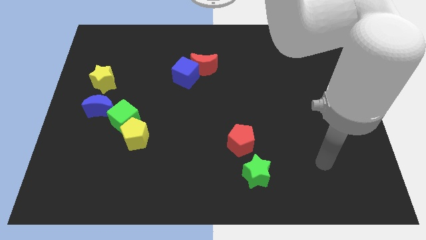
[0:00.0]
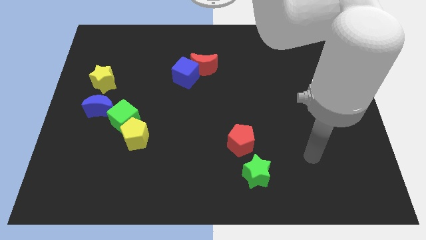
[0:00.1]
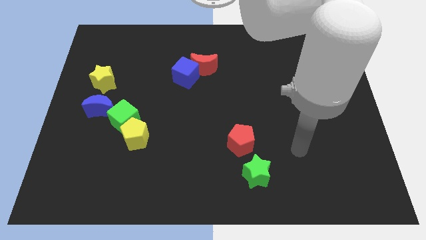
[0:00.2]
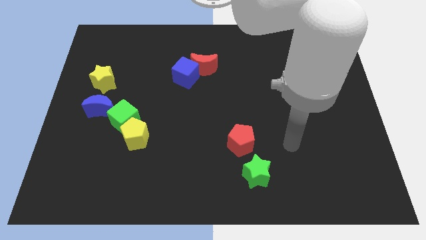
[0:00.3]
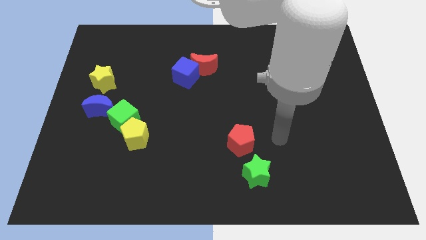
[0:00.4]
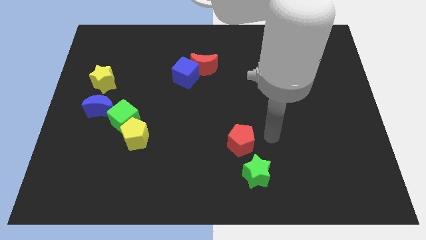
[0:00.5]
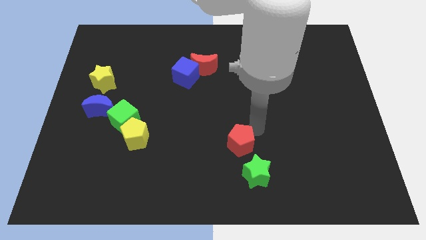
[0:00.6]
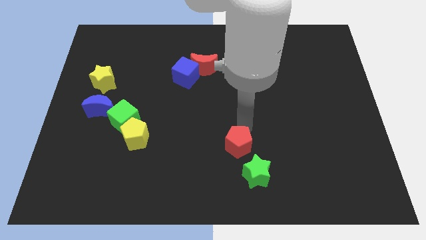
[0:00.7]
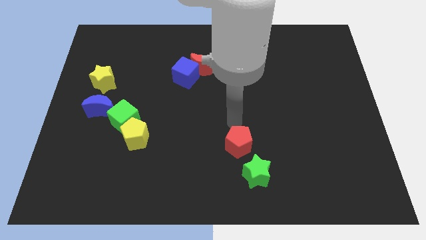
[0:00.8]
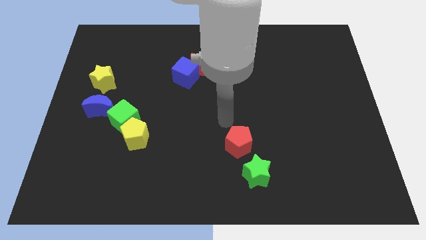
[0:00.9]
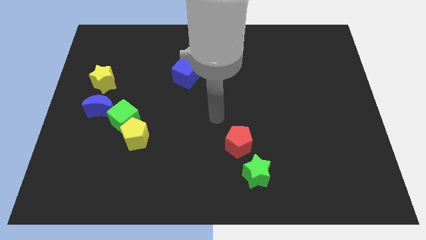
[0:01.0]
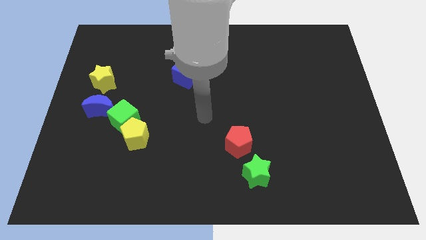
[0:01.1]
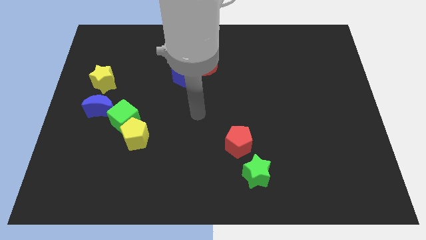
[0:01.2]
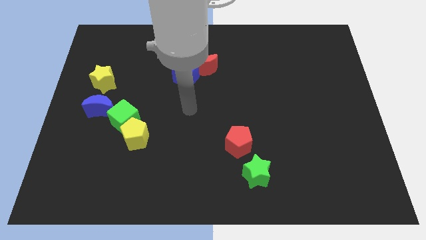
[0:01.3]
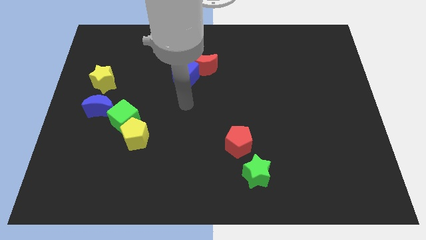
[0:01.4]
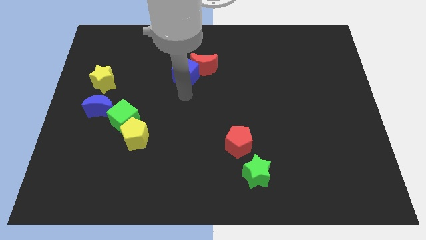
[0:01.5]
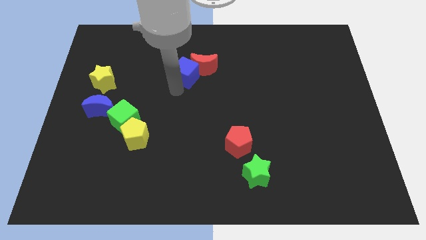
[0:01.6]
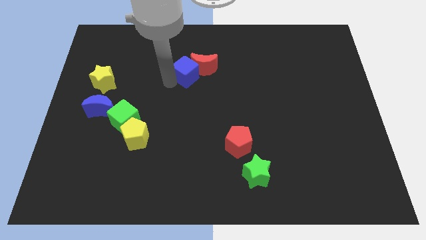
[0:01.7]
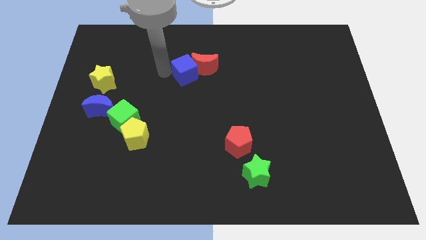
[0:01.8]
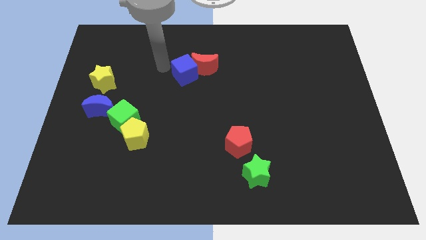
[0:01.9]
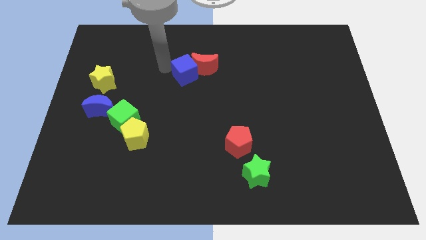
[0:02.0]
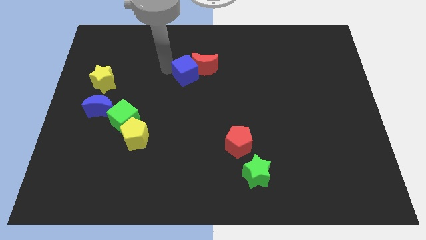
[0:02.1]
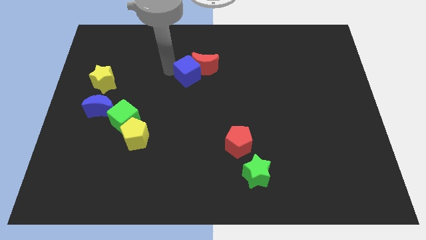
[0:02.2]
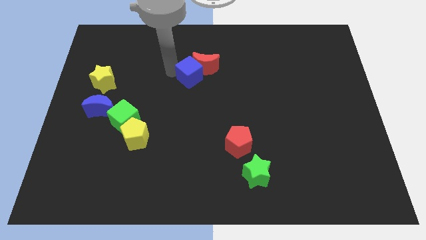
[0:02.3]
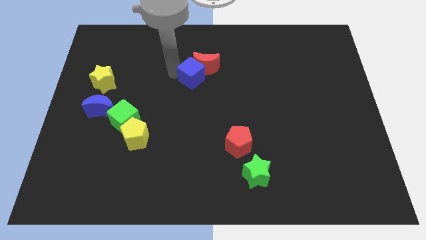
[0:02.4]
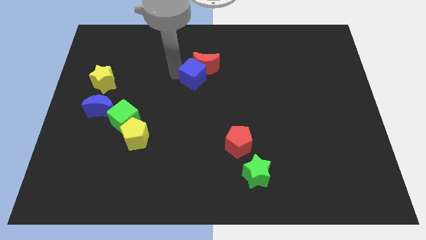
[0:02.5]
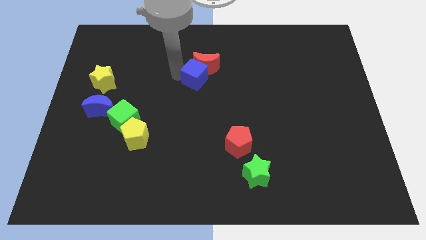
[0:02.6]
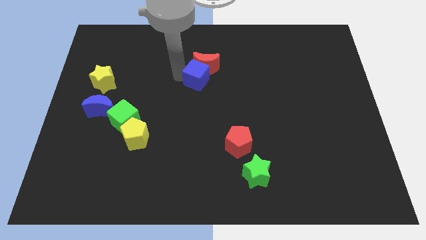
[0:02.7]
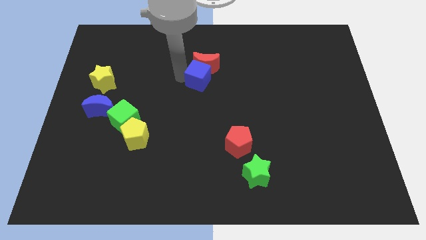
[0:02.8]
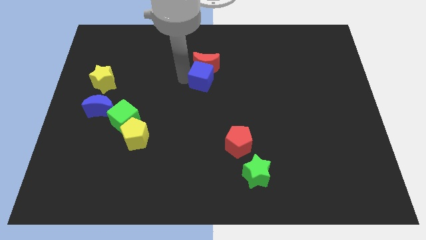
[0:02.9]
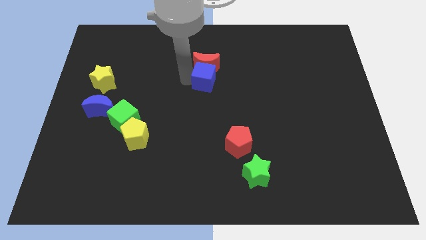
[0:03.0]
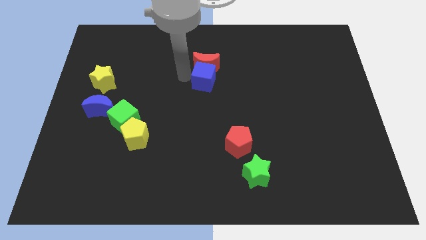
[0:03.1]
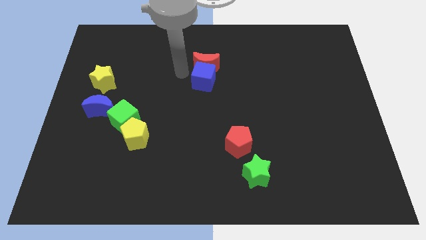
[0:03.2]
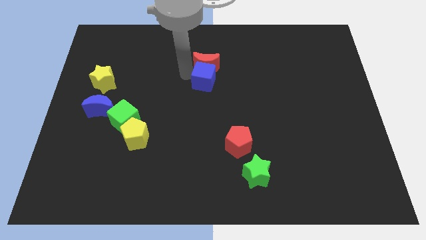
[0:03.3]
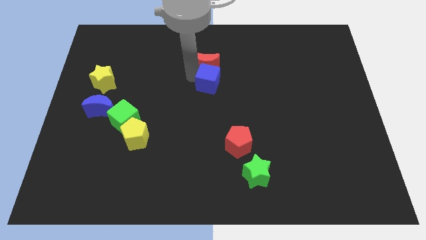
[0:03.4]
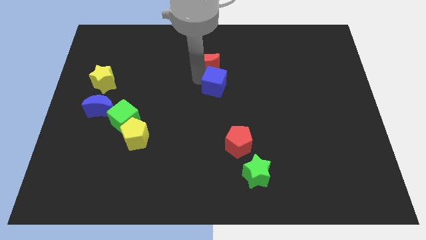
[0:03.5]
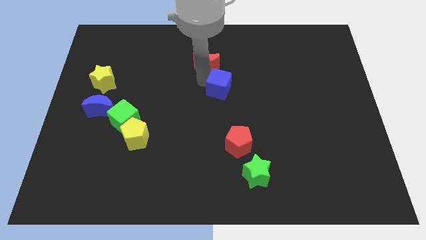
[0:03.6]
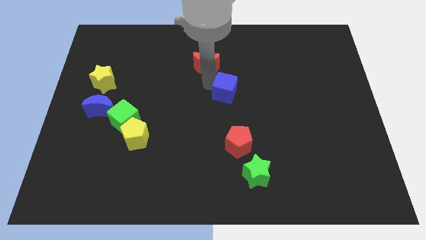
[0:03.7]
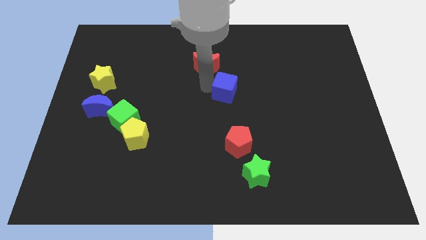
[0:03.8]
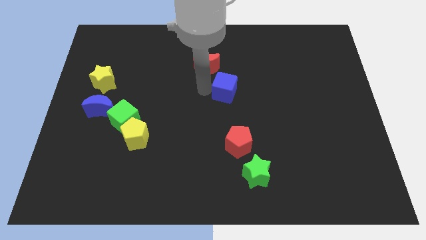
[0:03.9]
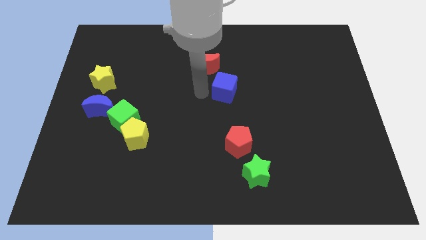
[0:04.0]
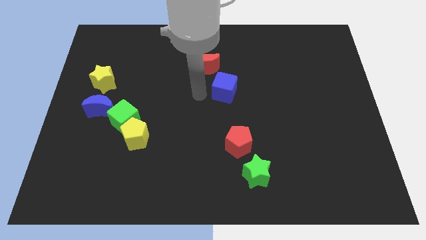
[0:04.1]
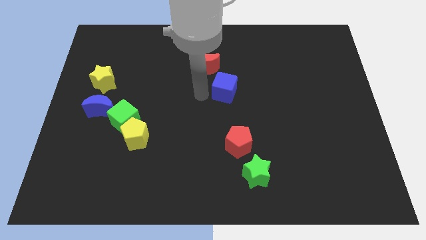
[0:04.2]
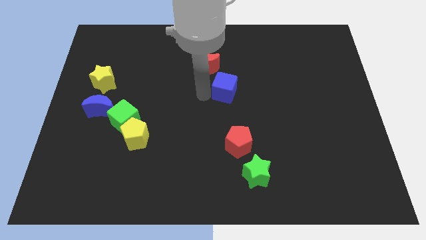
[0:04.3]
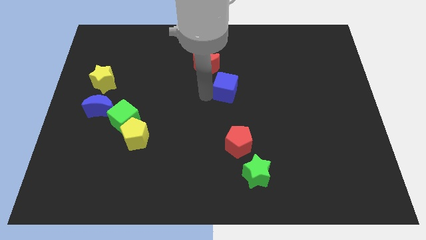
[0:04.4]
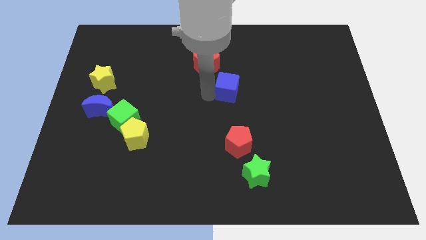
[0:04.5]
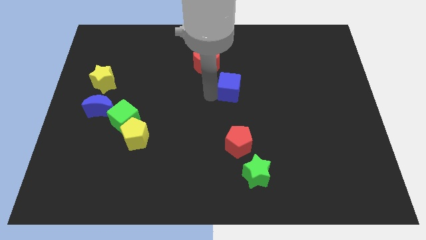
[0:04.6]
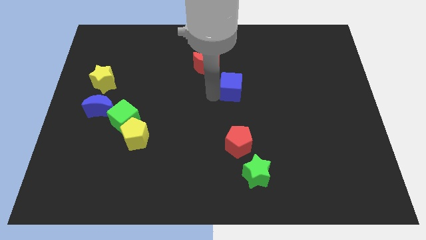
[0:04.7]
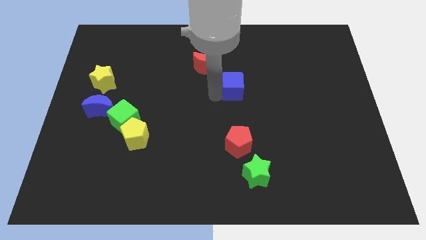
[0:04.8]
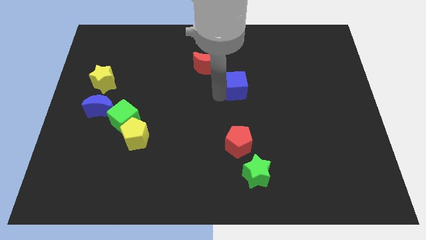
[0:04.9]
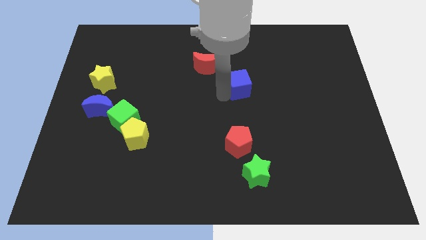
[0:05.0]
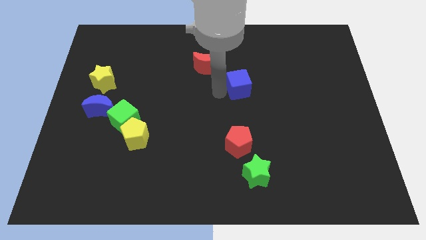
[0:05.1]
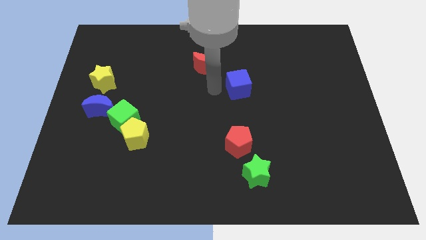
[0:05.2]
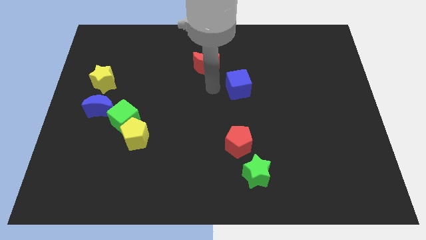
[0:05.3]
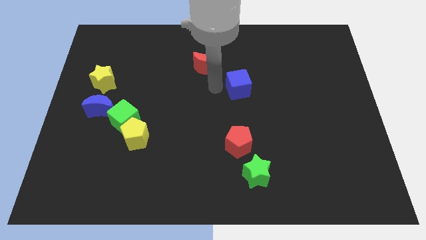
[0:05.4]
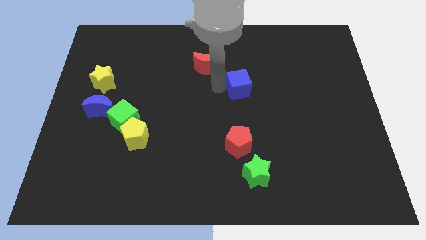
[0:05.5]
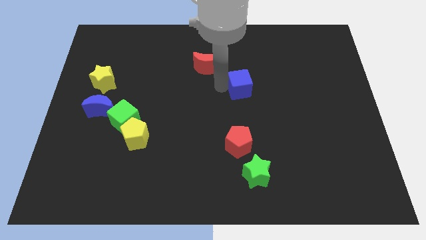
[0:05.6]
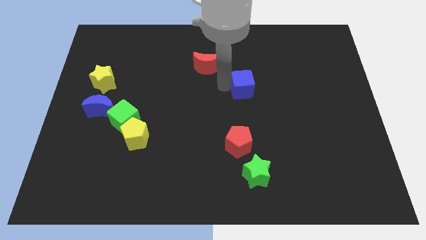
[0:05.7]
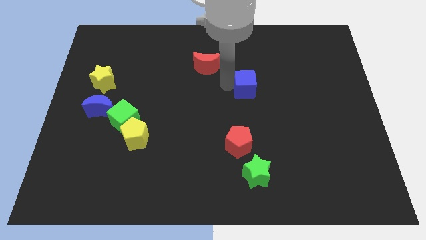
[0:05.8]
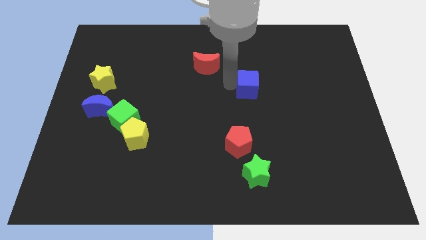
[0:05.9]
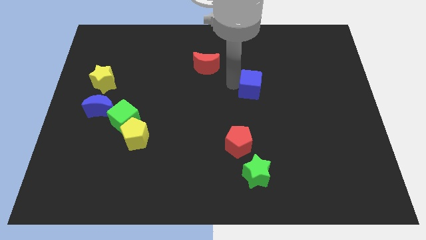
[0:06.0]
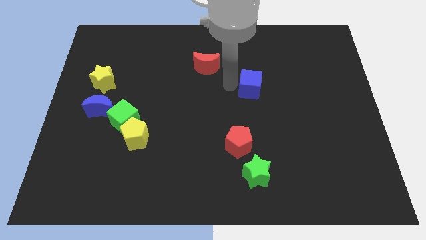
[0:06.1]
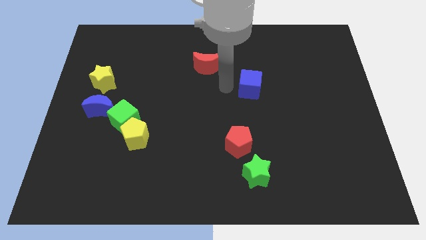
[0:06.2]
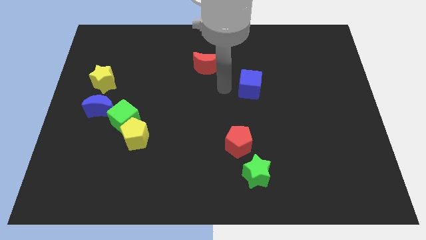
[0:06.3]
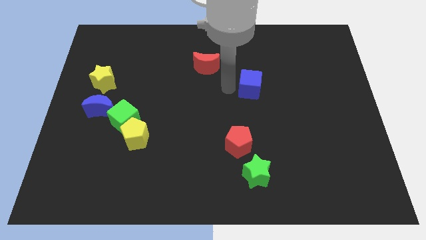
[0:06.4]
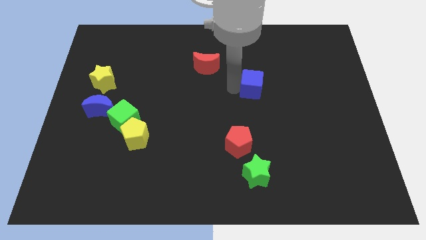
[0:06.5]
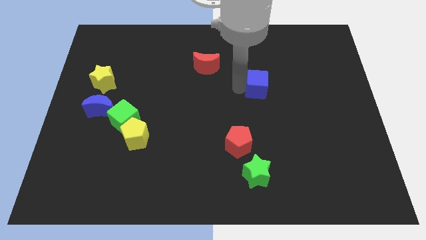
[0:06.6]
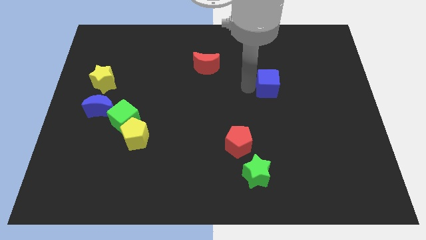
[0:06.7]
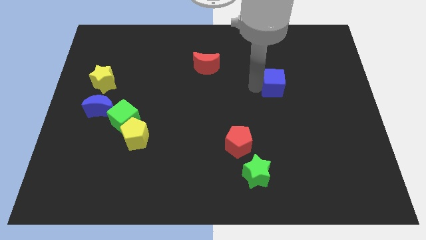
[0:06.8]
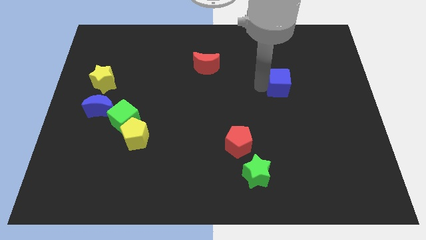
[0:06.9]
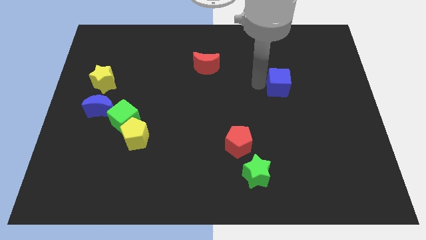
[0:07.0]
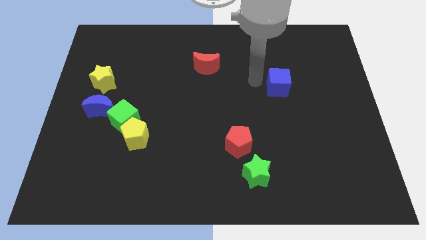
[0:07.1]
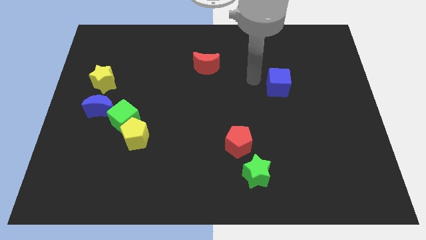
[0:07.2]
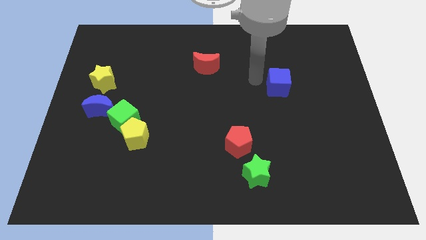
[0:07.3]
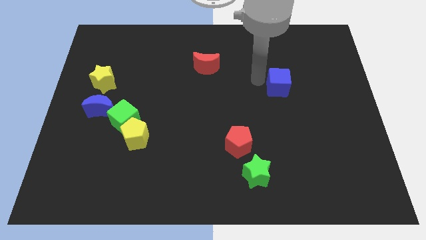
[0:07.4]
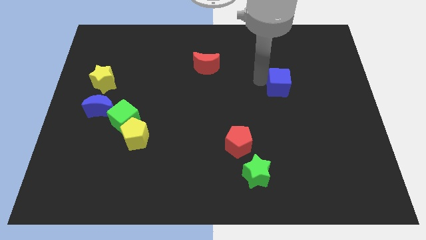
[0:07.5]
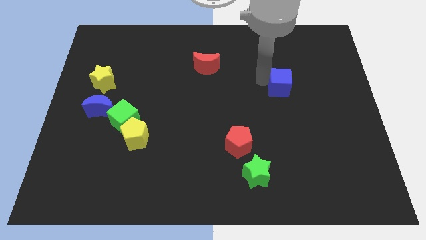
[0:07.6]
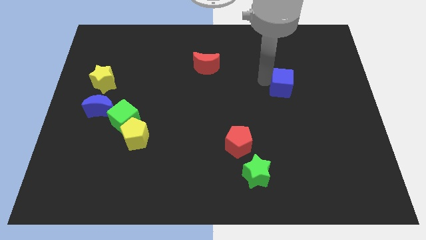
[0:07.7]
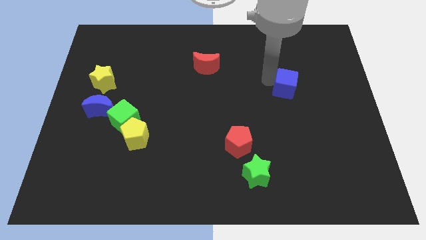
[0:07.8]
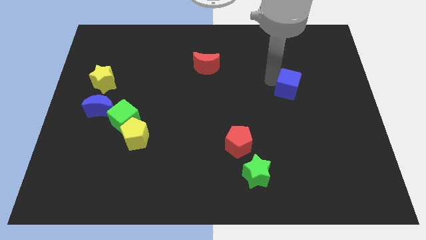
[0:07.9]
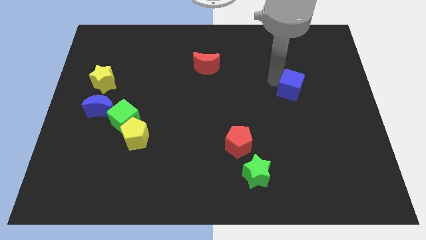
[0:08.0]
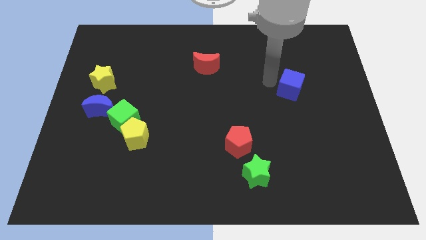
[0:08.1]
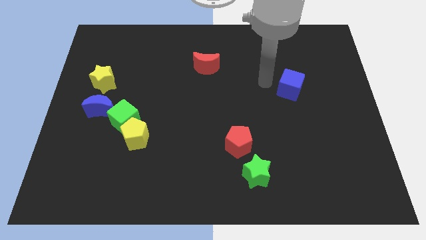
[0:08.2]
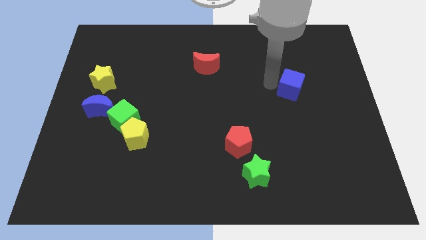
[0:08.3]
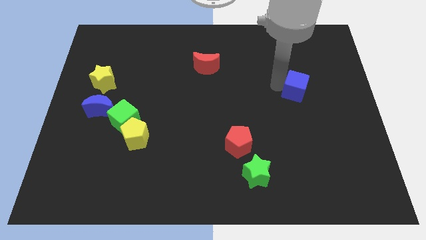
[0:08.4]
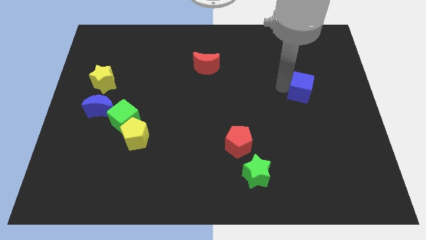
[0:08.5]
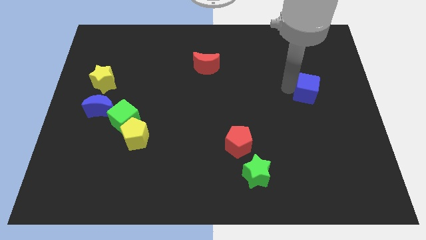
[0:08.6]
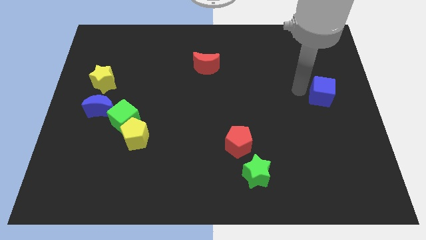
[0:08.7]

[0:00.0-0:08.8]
put the blue cube to the center right
